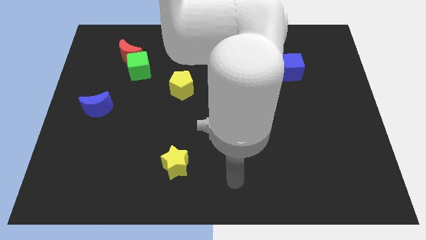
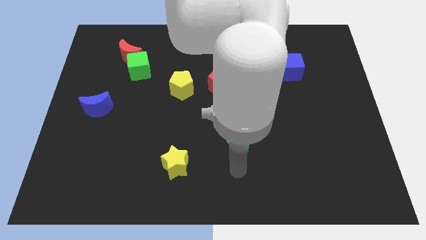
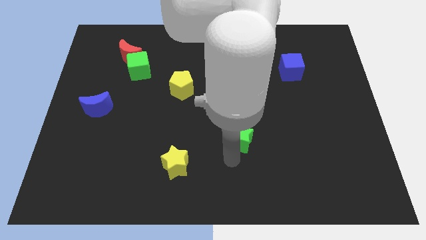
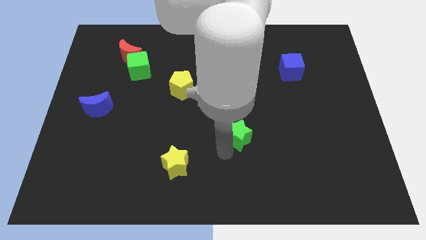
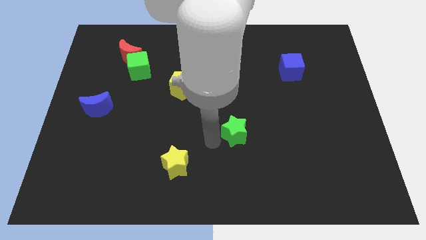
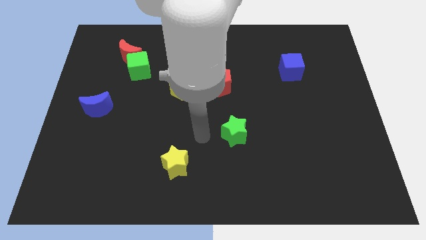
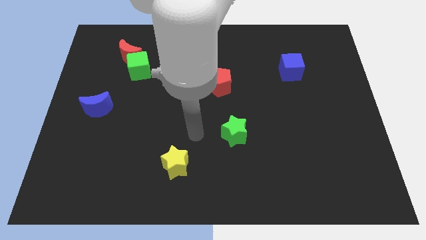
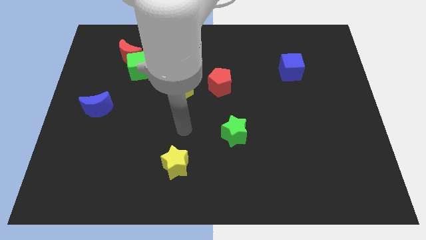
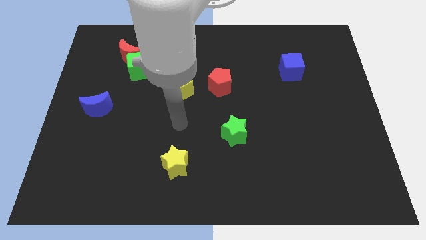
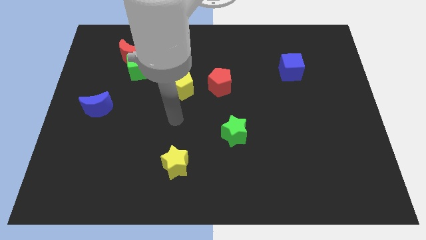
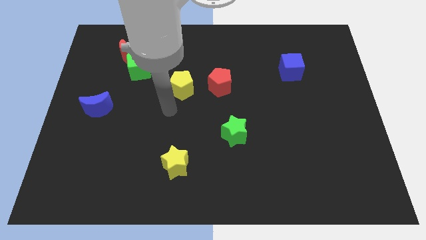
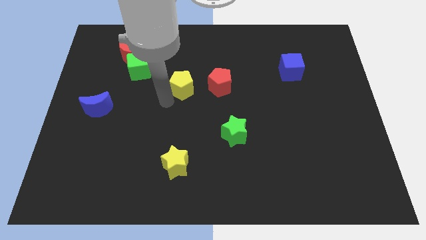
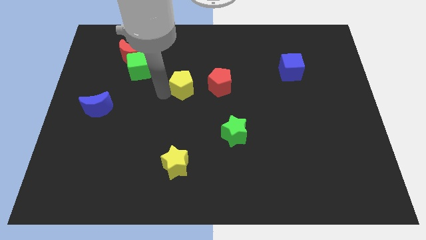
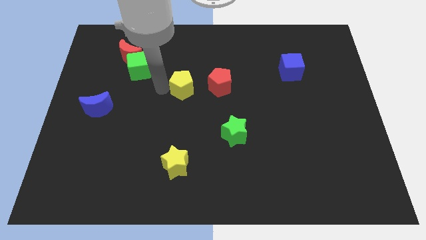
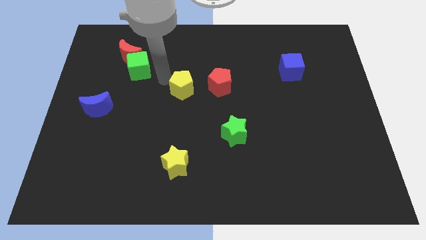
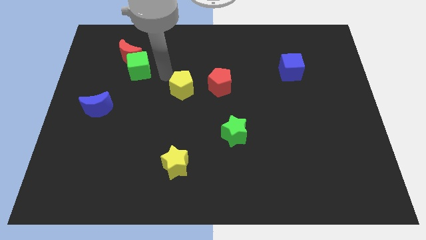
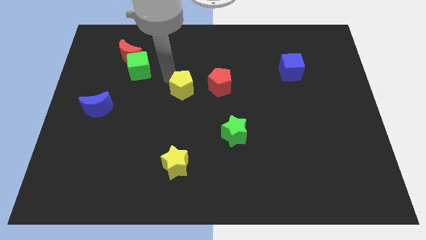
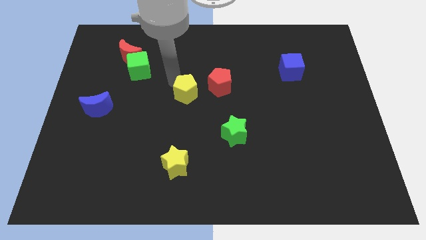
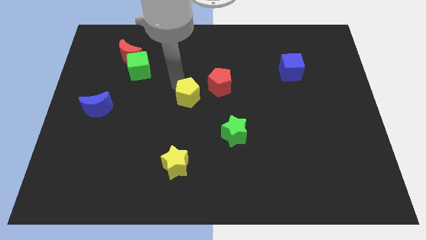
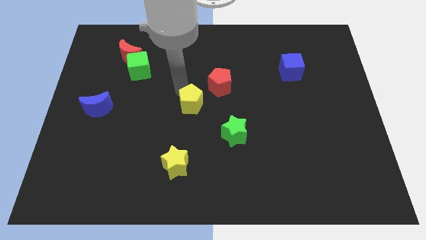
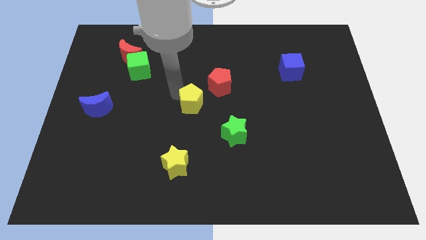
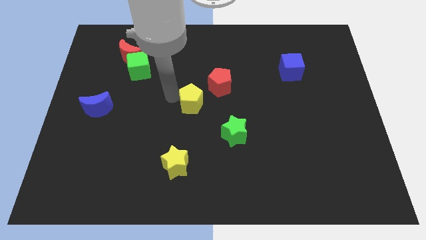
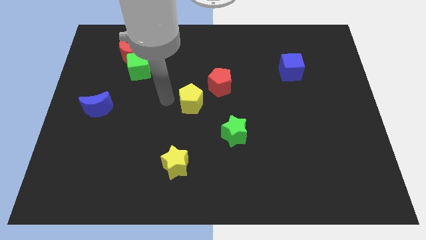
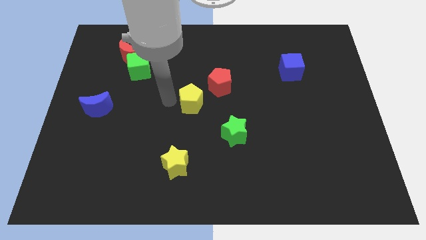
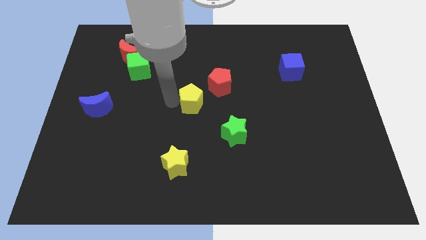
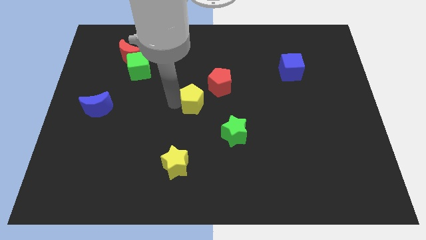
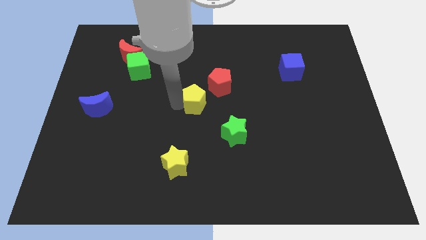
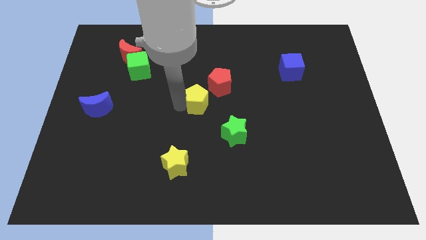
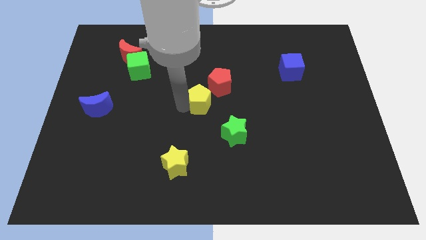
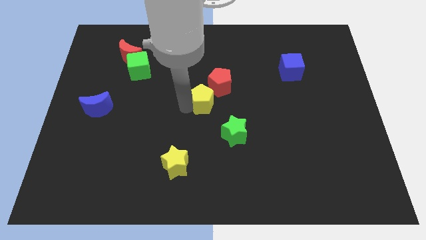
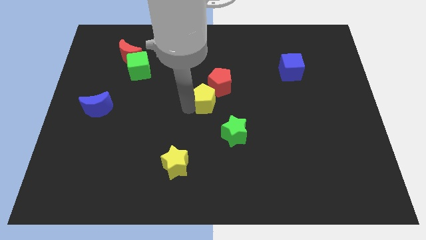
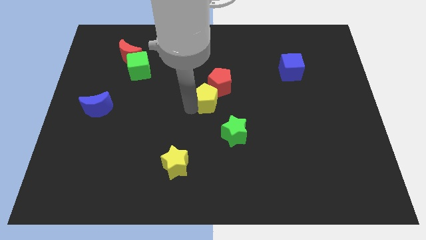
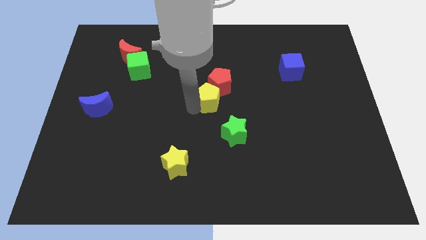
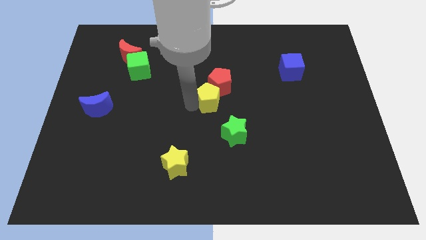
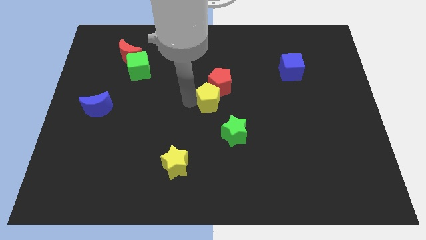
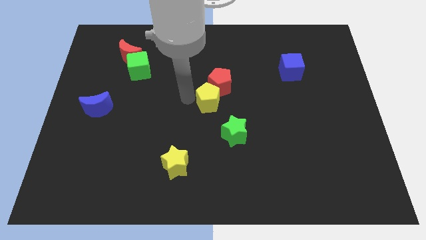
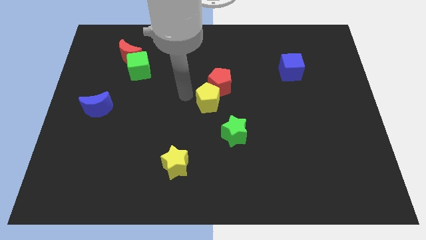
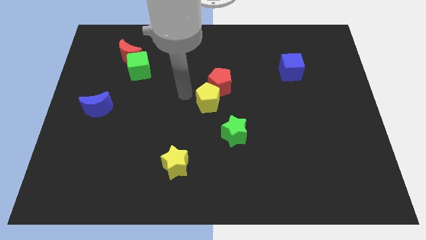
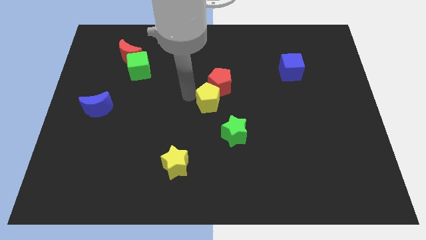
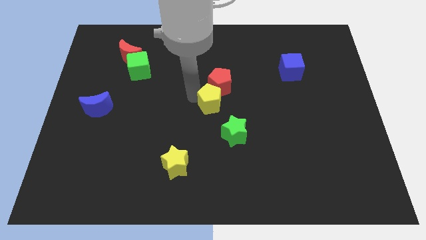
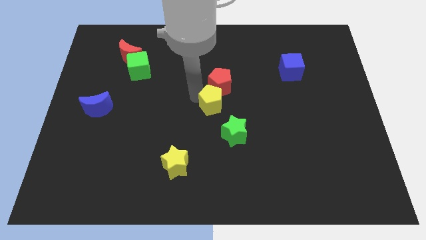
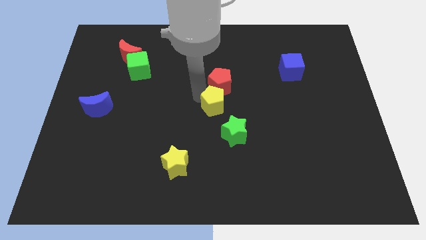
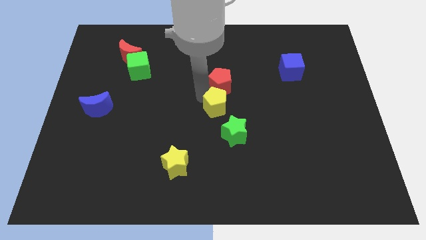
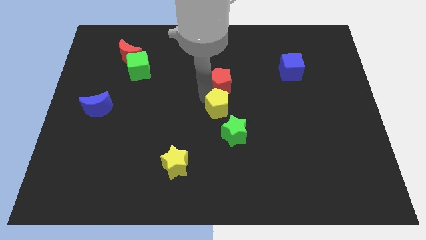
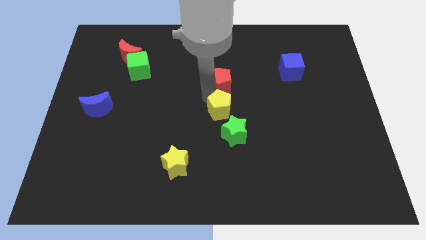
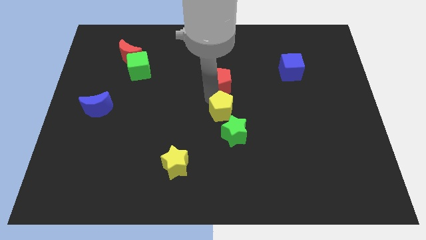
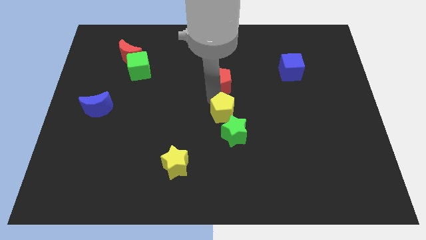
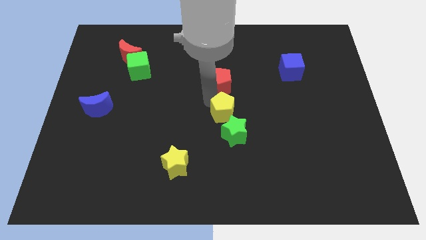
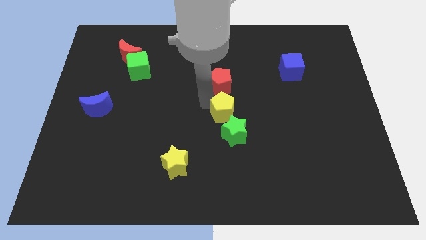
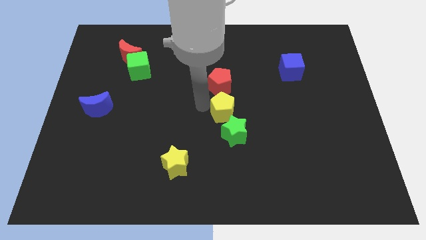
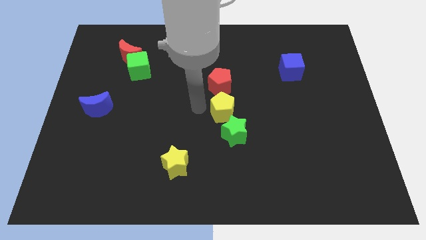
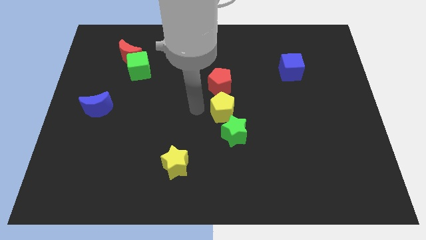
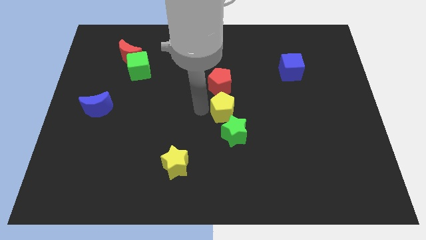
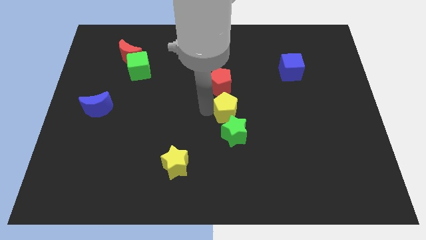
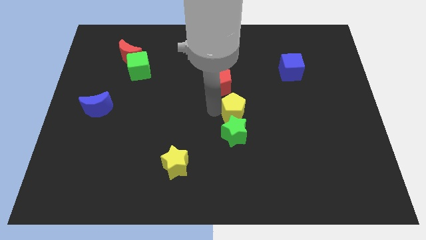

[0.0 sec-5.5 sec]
slide the yellow pentagon to the top right side of the green star

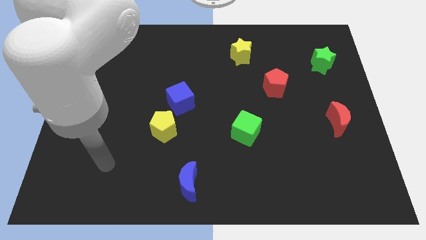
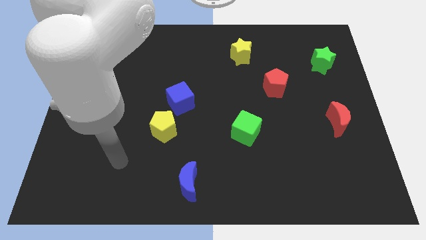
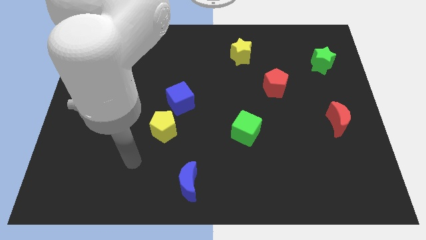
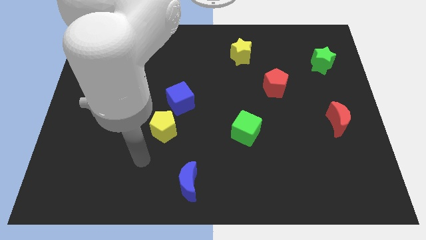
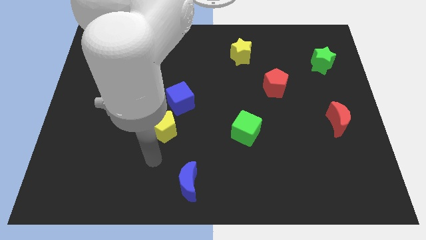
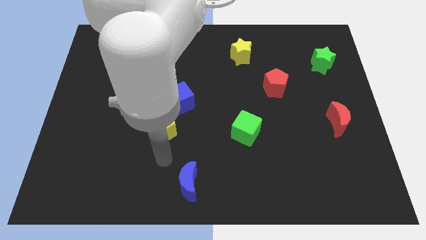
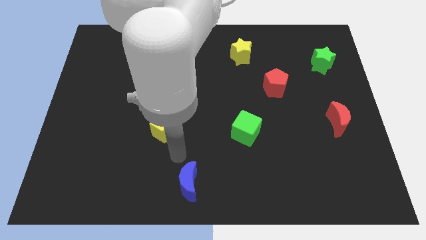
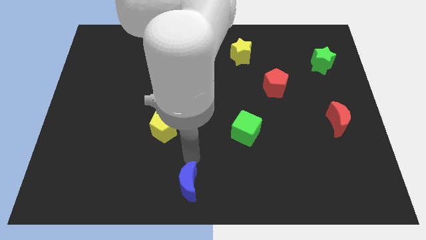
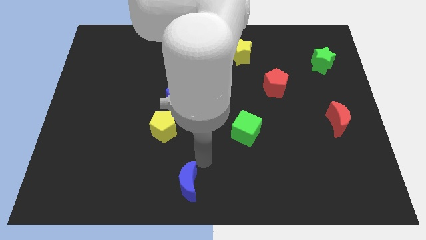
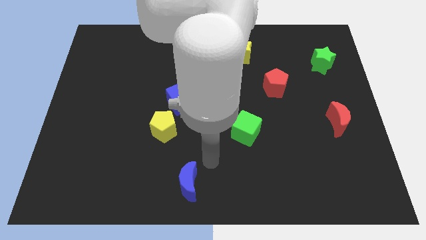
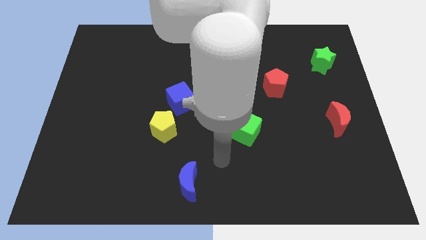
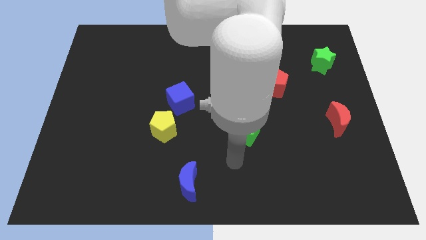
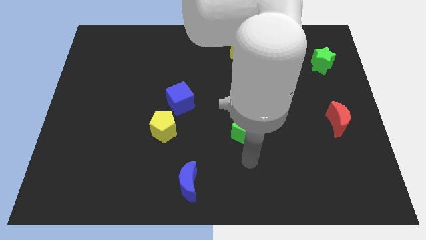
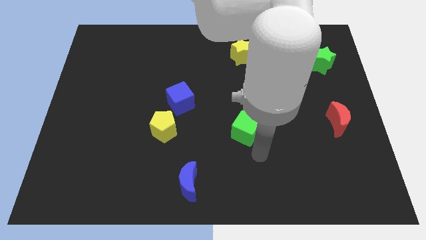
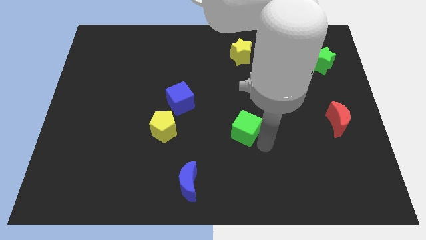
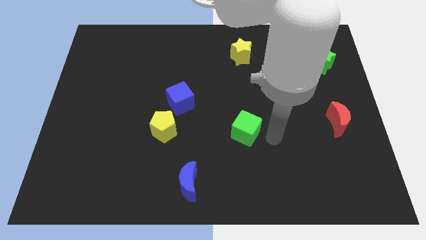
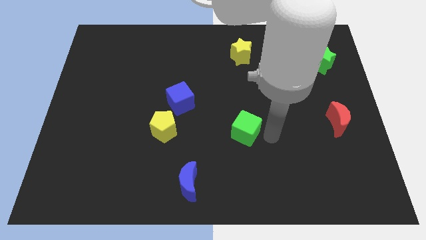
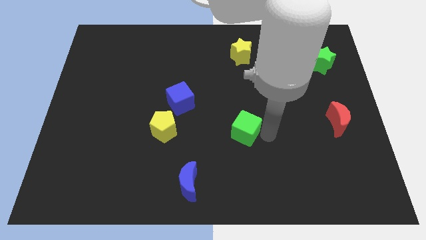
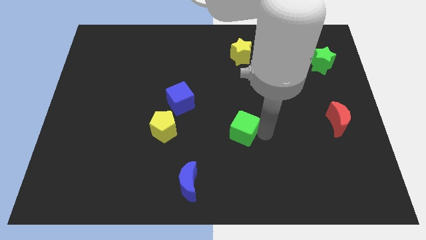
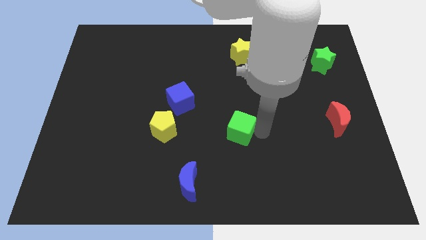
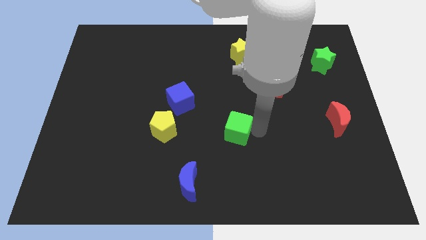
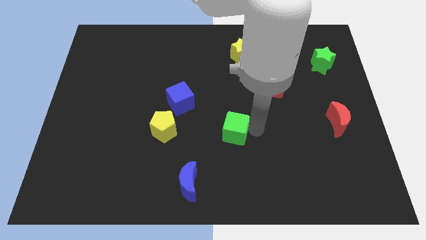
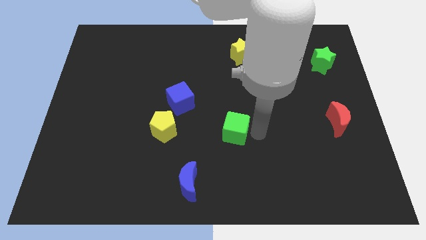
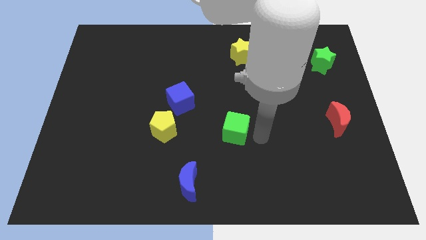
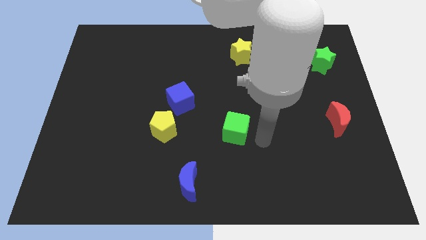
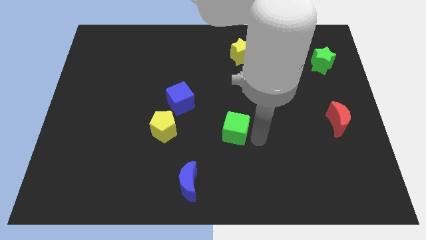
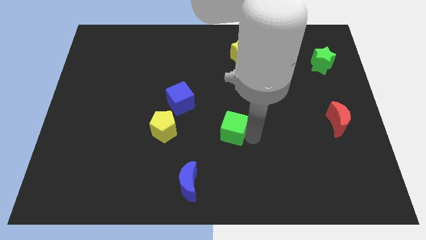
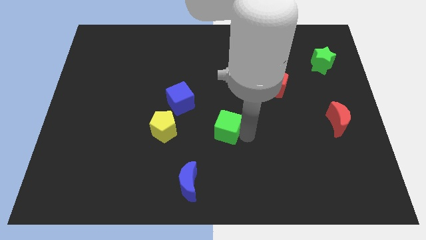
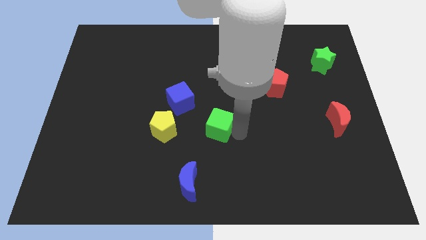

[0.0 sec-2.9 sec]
slide the green cube to the bottom right side of the blue cube
